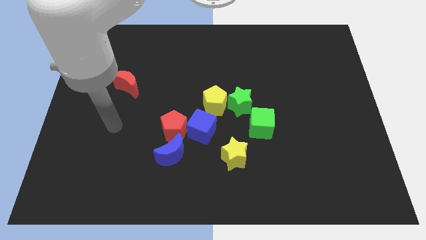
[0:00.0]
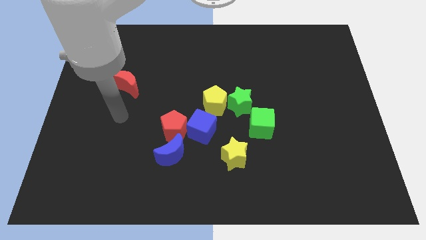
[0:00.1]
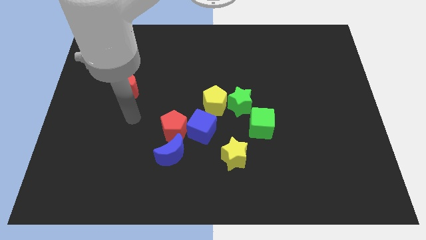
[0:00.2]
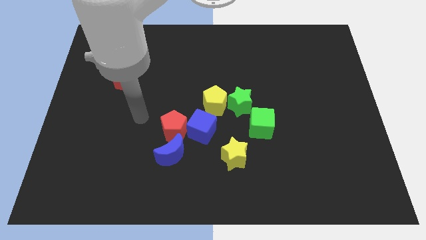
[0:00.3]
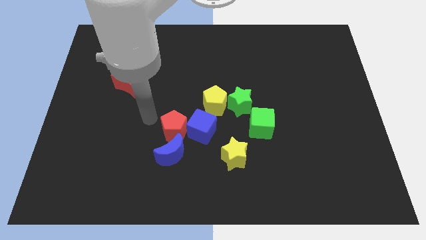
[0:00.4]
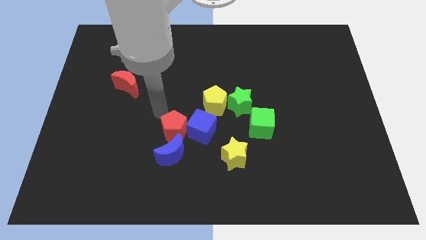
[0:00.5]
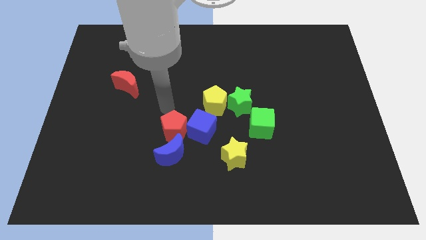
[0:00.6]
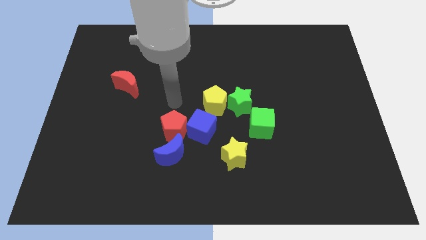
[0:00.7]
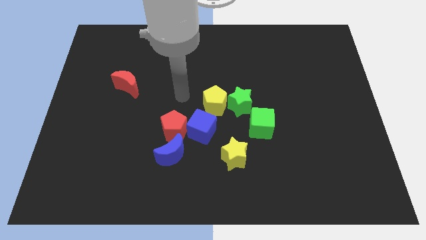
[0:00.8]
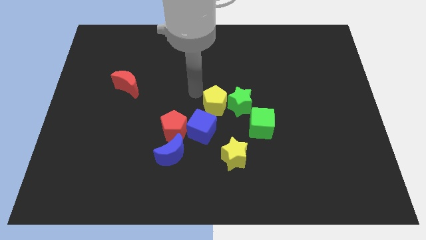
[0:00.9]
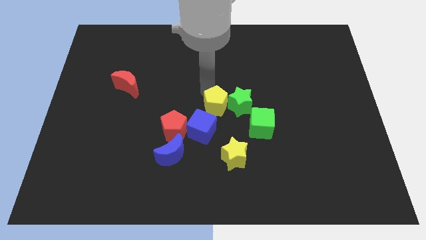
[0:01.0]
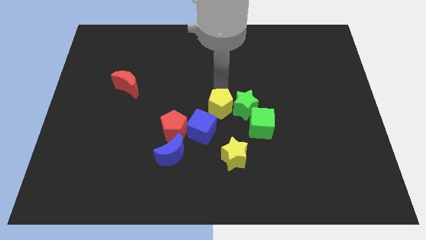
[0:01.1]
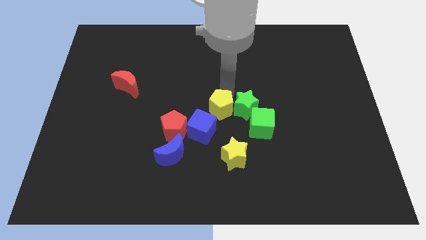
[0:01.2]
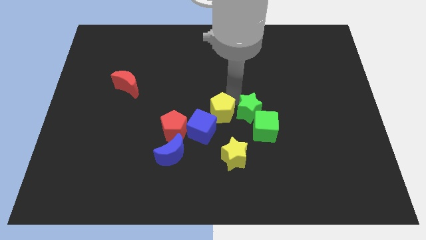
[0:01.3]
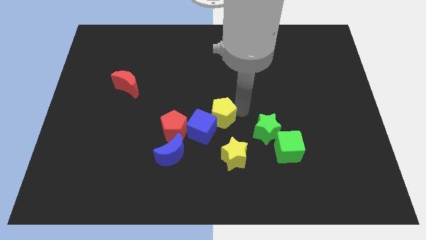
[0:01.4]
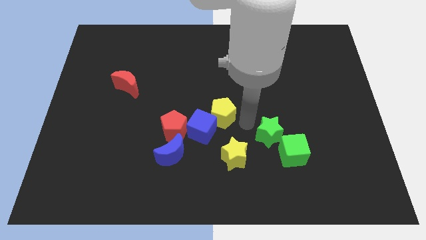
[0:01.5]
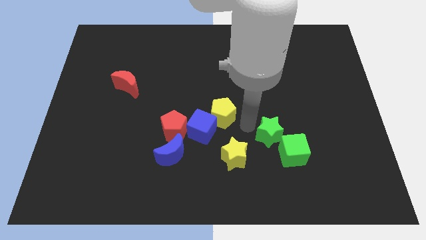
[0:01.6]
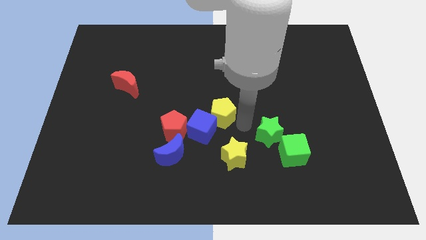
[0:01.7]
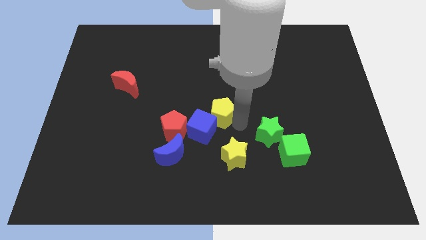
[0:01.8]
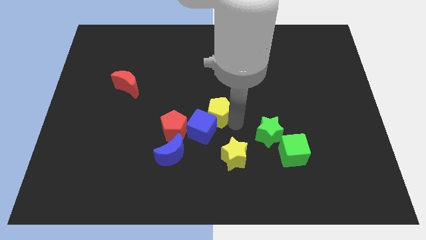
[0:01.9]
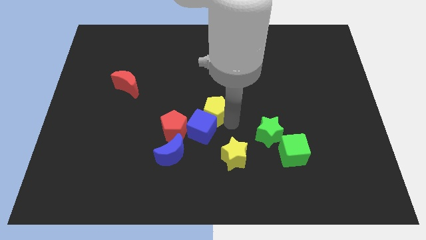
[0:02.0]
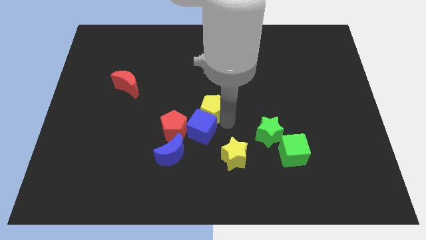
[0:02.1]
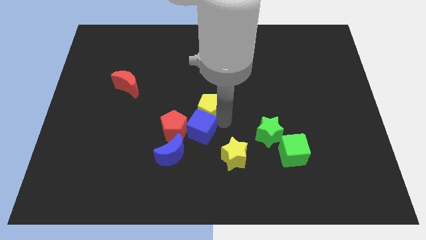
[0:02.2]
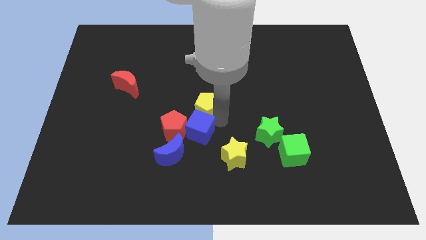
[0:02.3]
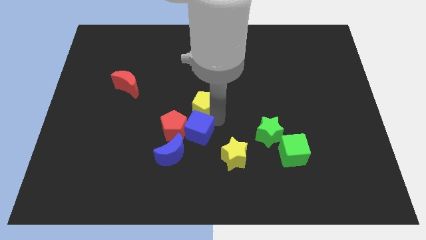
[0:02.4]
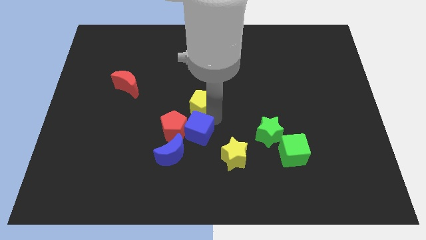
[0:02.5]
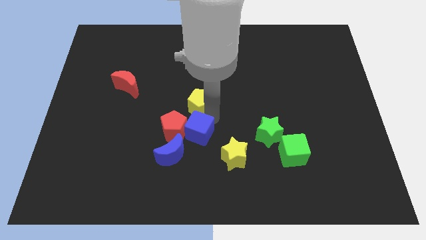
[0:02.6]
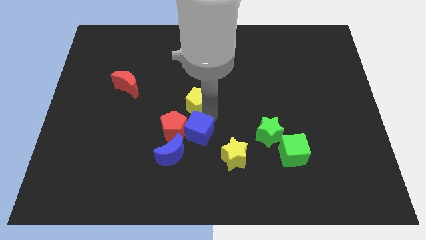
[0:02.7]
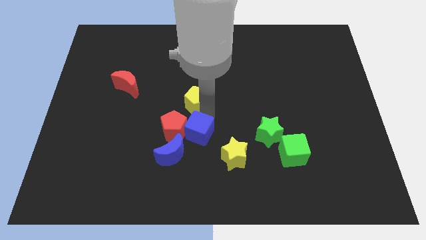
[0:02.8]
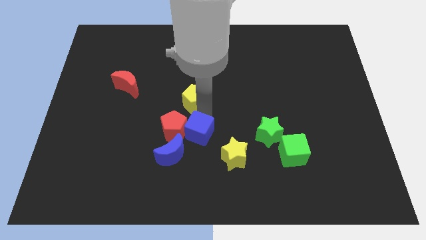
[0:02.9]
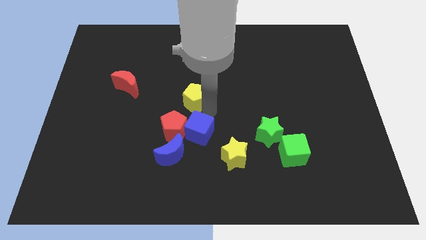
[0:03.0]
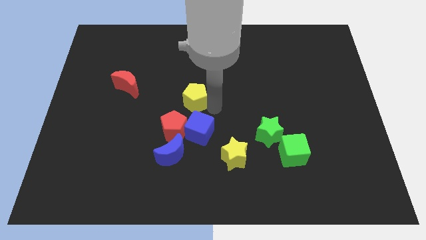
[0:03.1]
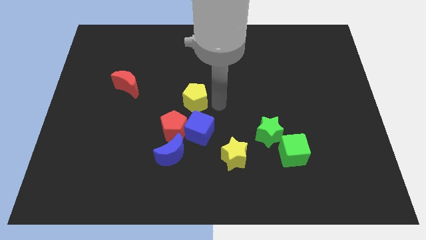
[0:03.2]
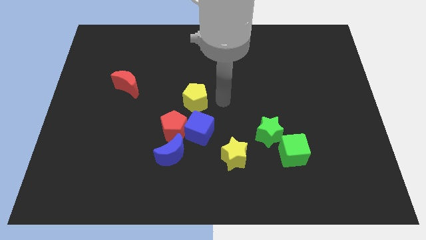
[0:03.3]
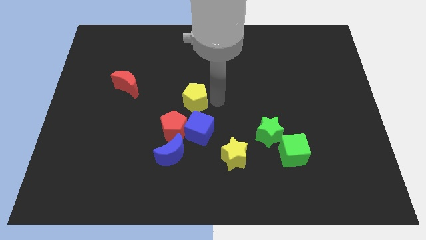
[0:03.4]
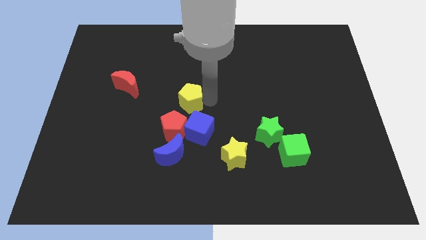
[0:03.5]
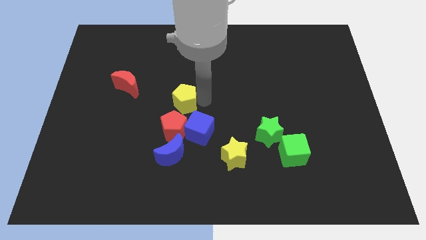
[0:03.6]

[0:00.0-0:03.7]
slightly slide the yellow pentagon to the left

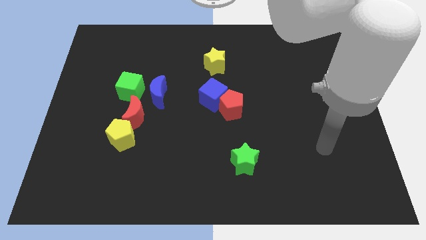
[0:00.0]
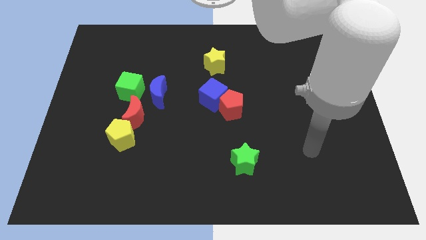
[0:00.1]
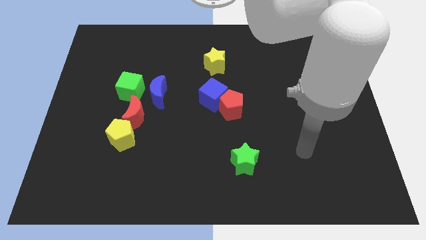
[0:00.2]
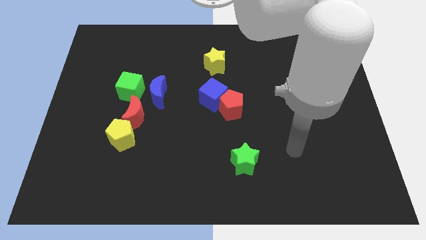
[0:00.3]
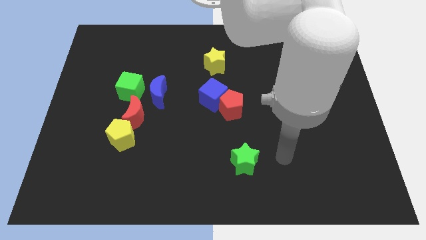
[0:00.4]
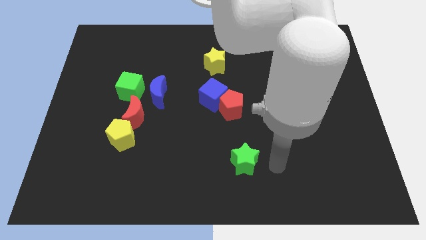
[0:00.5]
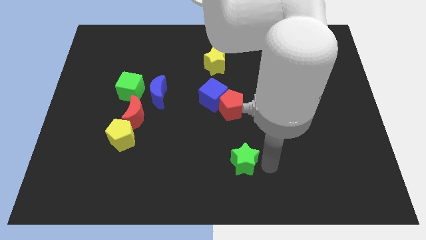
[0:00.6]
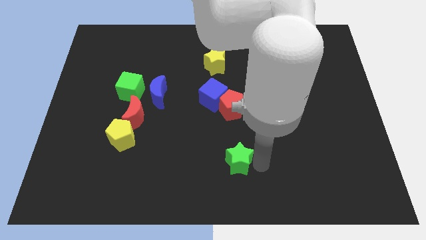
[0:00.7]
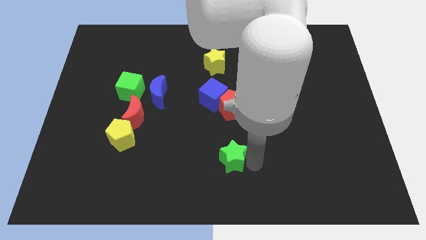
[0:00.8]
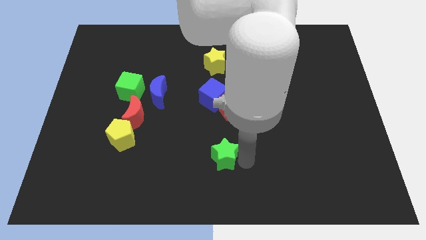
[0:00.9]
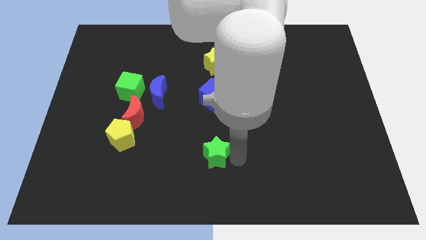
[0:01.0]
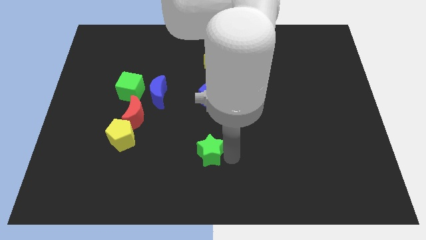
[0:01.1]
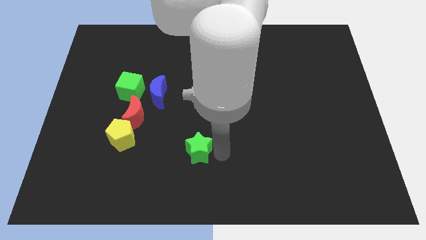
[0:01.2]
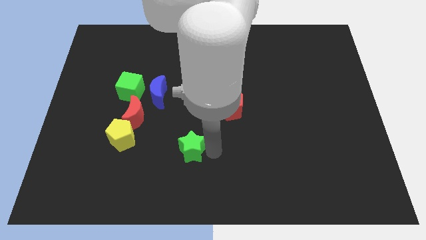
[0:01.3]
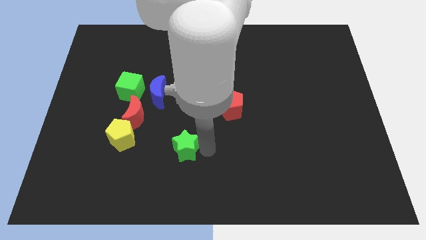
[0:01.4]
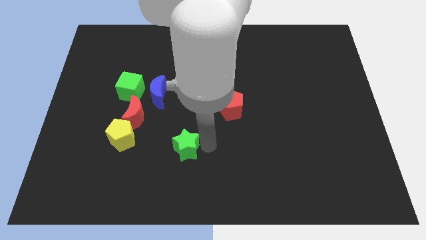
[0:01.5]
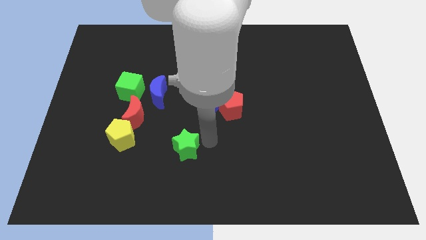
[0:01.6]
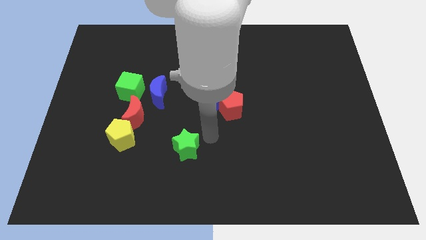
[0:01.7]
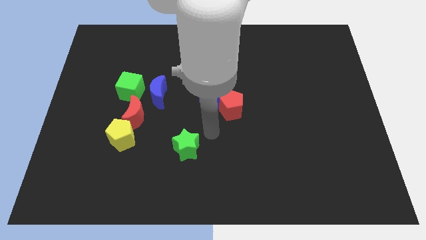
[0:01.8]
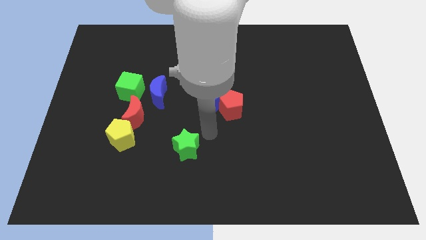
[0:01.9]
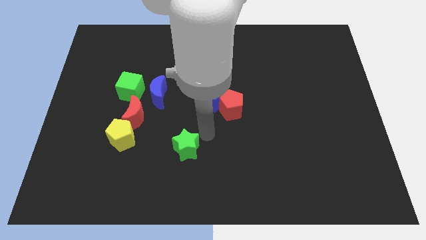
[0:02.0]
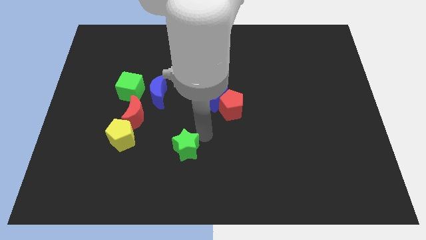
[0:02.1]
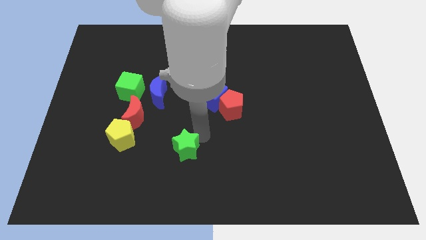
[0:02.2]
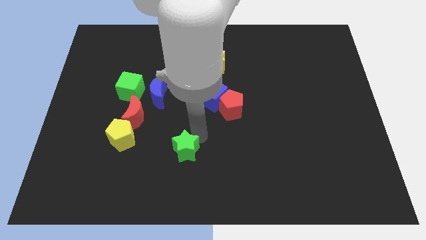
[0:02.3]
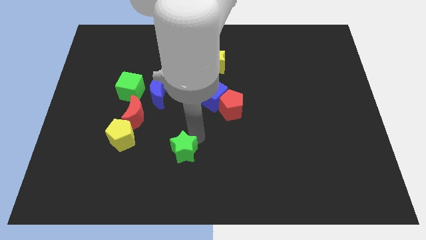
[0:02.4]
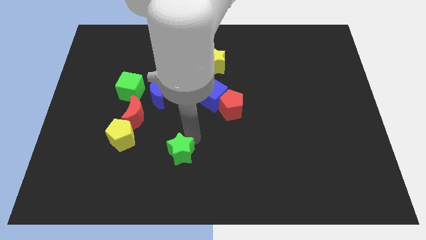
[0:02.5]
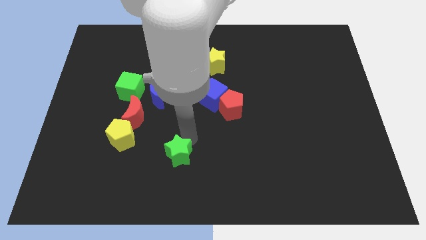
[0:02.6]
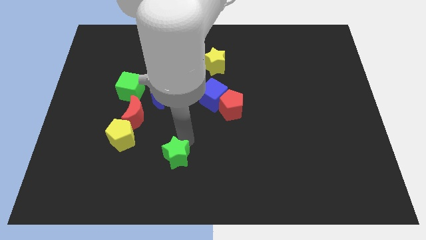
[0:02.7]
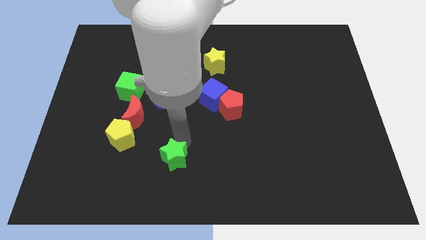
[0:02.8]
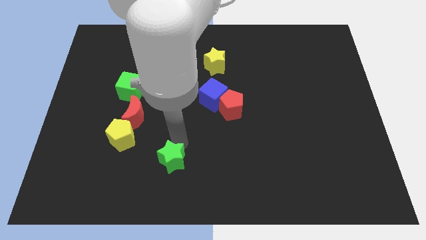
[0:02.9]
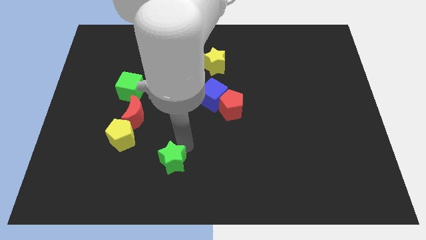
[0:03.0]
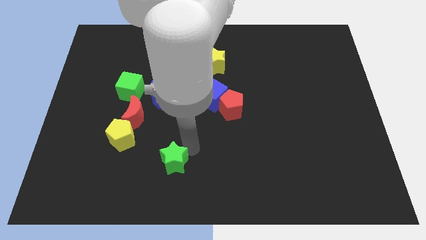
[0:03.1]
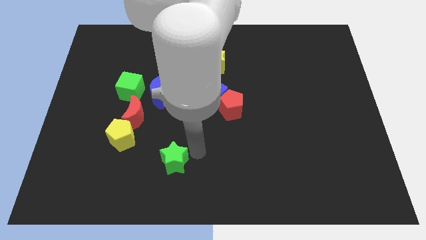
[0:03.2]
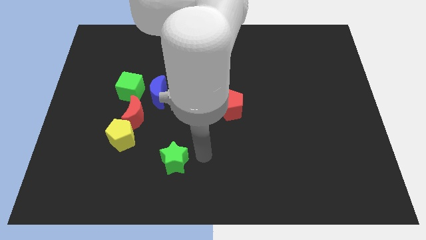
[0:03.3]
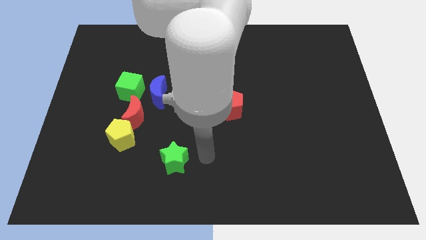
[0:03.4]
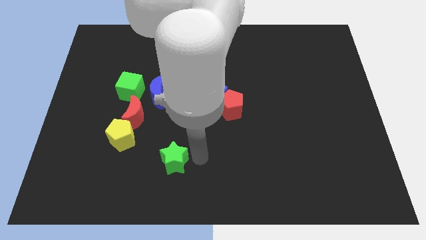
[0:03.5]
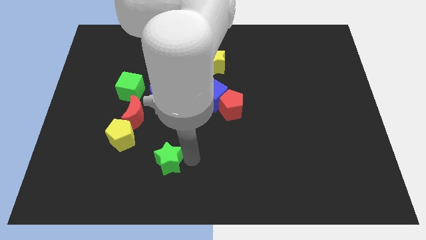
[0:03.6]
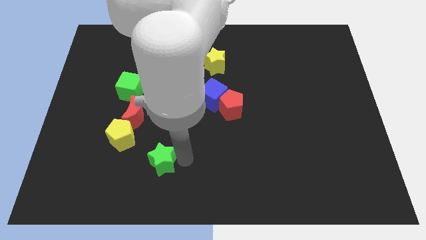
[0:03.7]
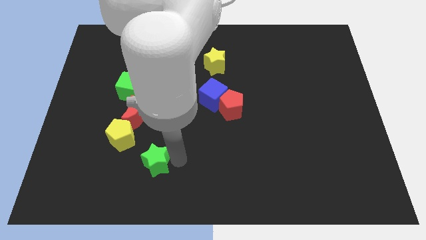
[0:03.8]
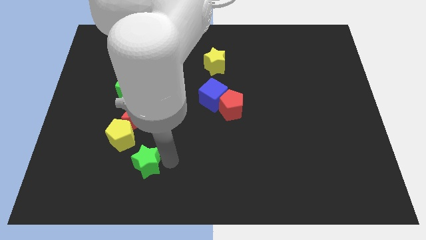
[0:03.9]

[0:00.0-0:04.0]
move the green star left
